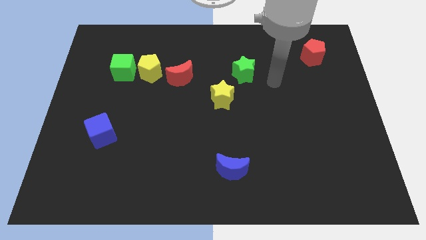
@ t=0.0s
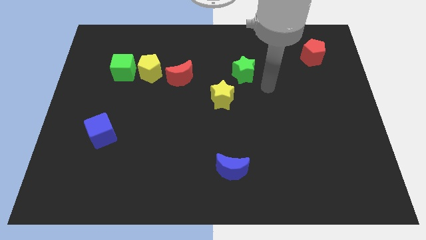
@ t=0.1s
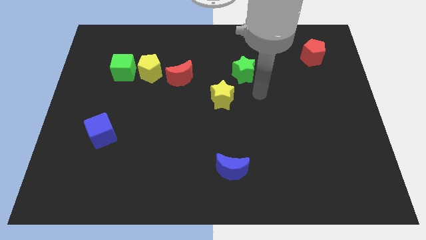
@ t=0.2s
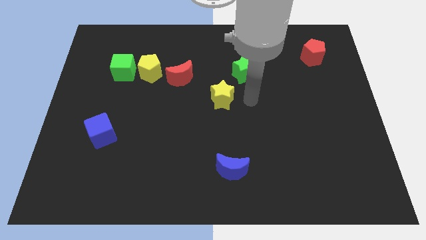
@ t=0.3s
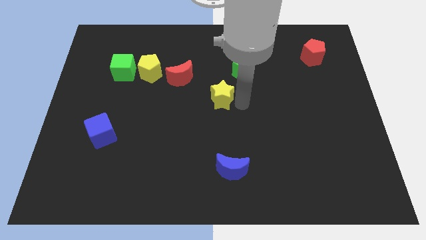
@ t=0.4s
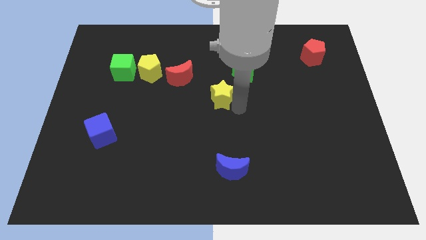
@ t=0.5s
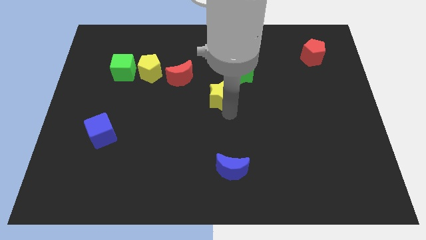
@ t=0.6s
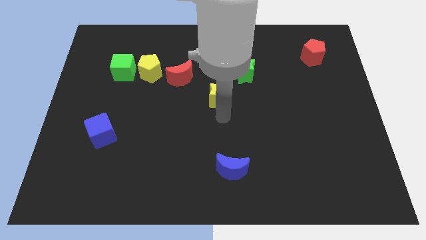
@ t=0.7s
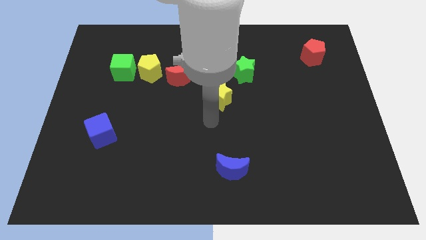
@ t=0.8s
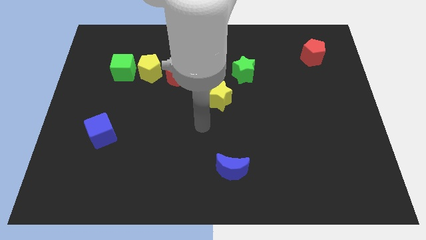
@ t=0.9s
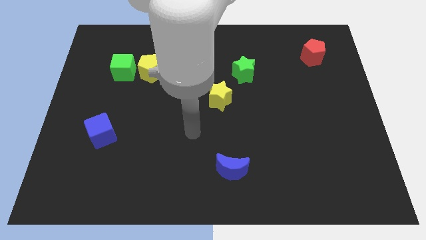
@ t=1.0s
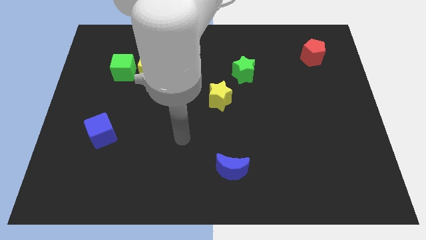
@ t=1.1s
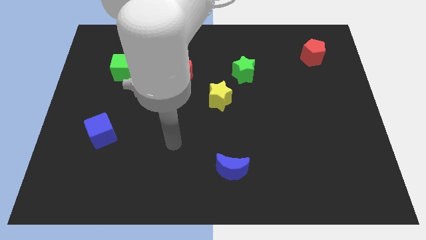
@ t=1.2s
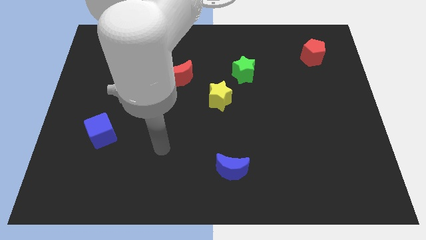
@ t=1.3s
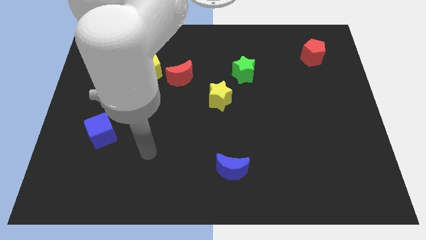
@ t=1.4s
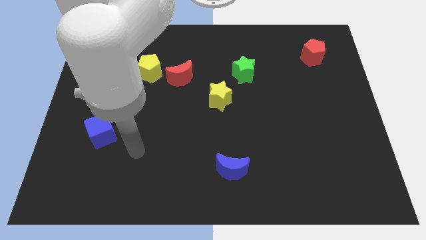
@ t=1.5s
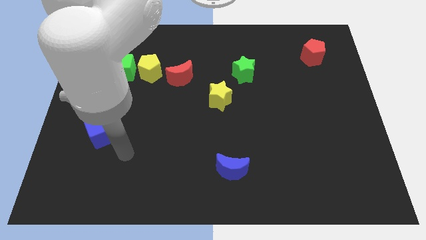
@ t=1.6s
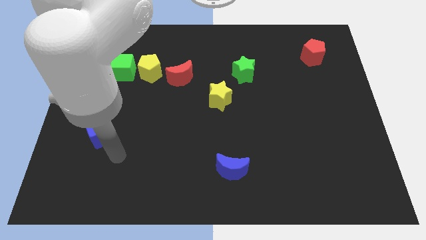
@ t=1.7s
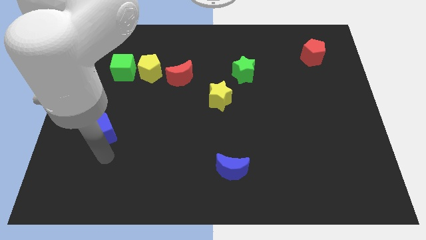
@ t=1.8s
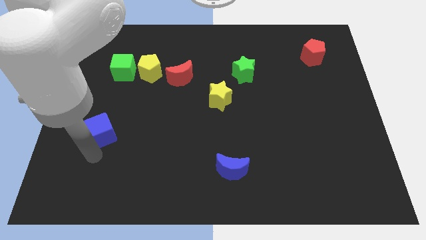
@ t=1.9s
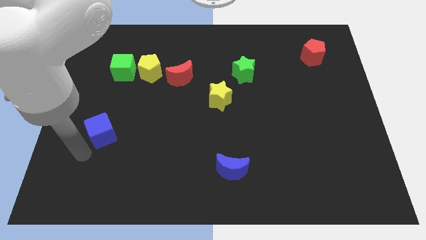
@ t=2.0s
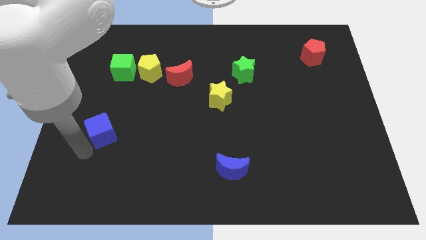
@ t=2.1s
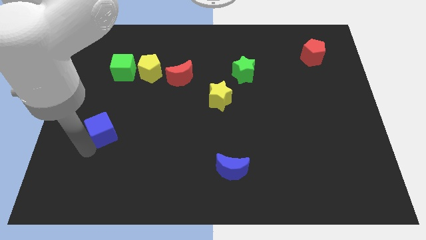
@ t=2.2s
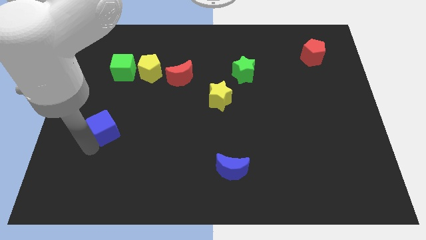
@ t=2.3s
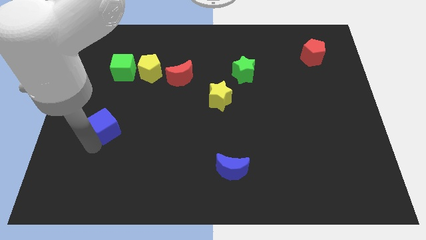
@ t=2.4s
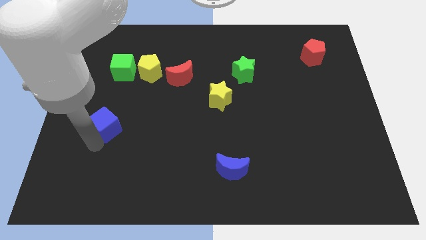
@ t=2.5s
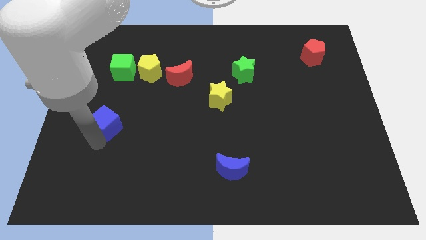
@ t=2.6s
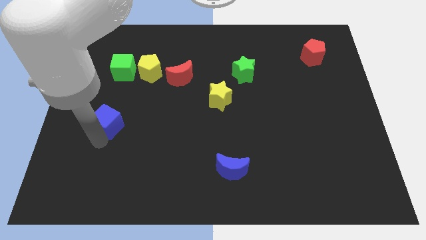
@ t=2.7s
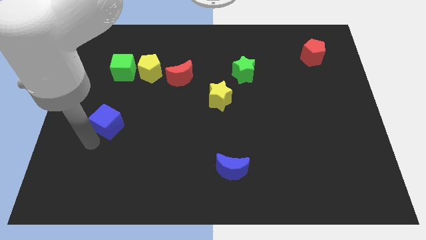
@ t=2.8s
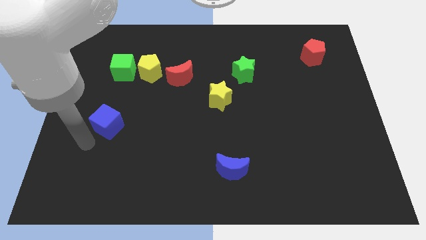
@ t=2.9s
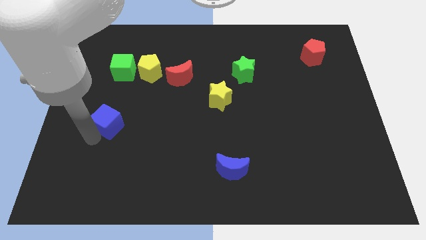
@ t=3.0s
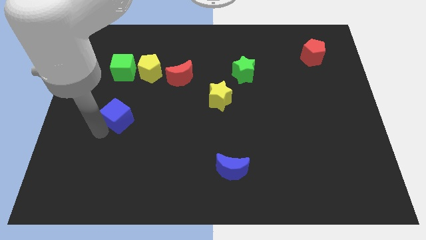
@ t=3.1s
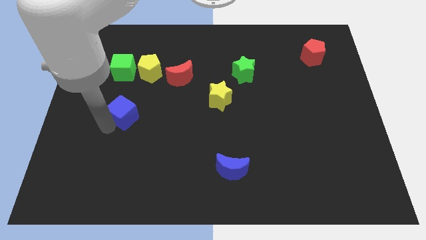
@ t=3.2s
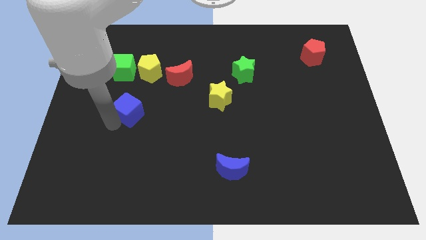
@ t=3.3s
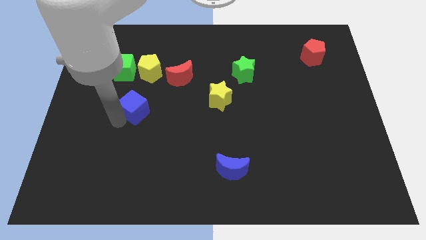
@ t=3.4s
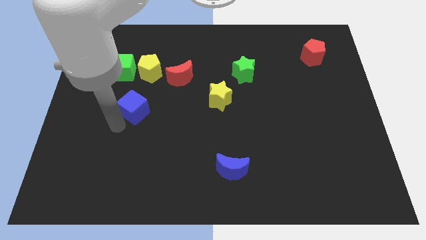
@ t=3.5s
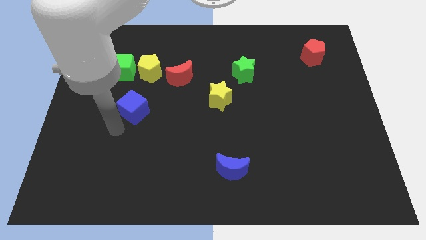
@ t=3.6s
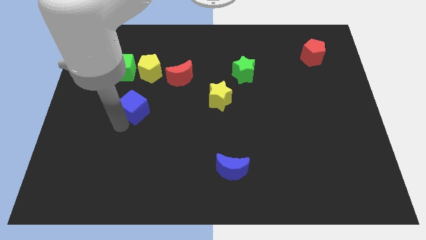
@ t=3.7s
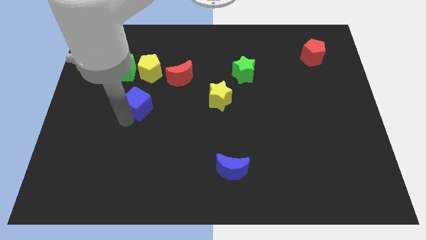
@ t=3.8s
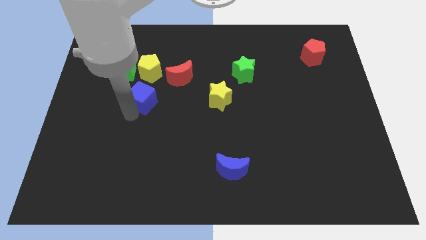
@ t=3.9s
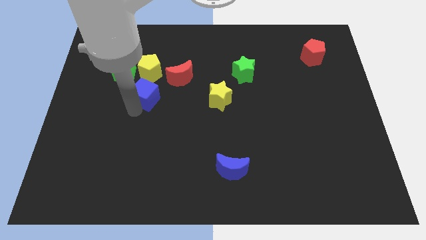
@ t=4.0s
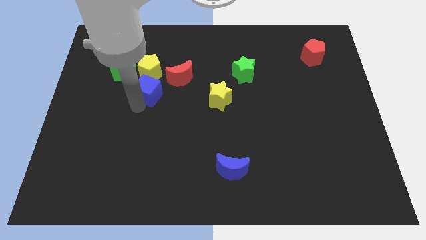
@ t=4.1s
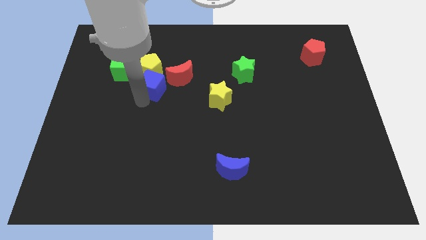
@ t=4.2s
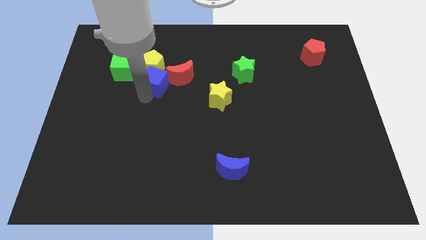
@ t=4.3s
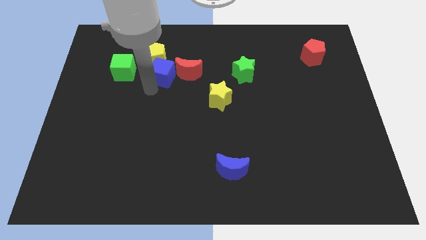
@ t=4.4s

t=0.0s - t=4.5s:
slide the blue cube diagonally up and to the right

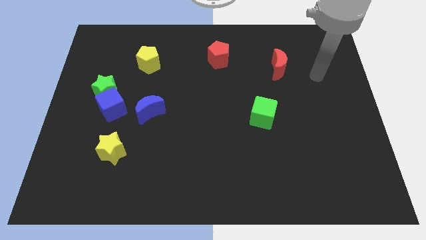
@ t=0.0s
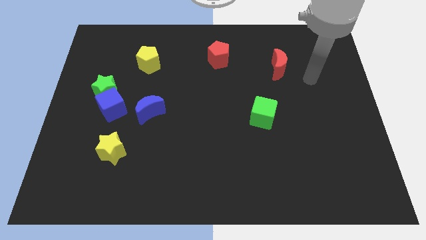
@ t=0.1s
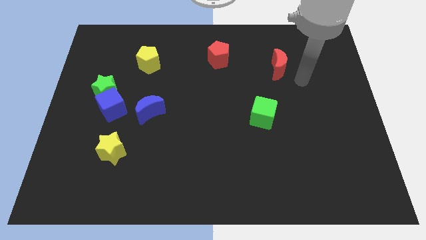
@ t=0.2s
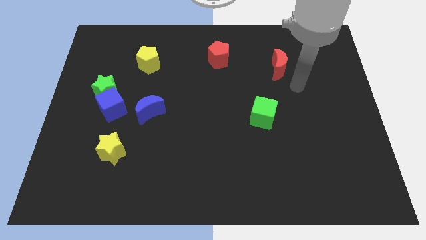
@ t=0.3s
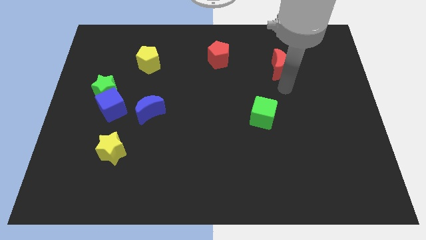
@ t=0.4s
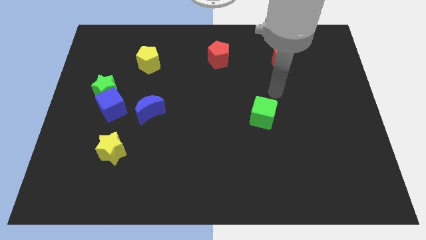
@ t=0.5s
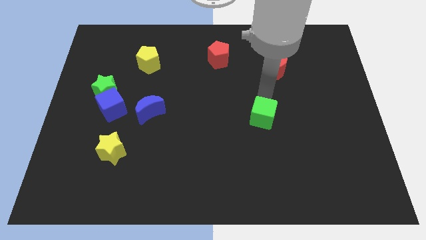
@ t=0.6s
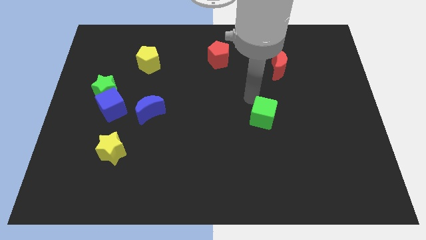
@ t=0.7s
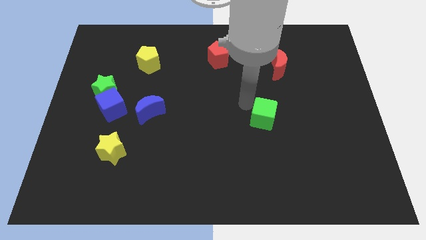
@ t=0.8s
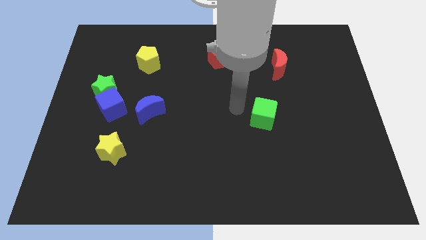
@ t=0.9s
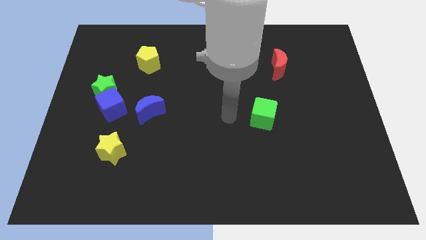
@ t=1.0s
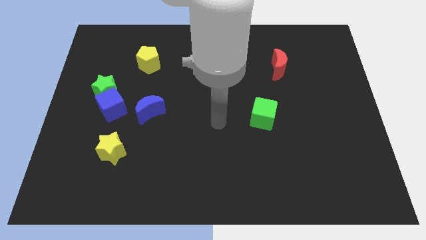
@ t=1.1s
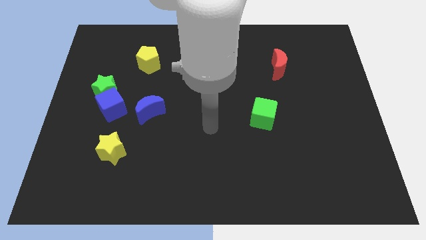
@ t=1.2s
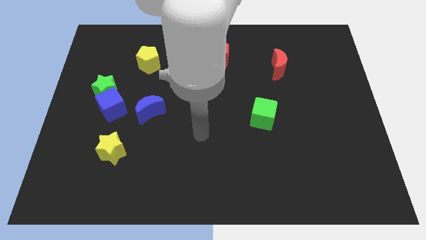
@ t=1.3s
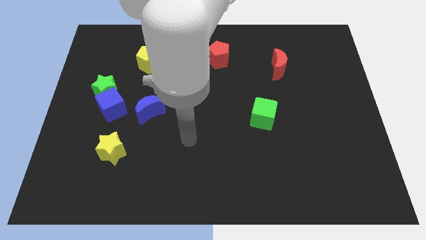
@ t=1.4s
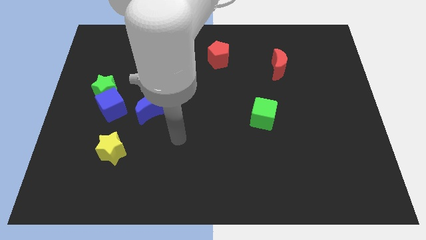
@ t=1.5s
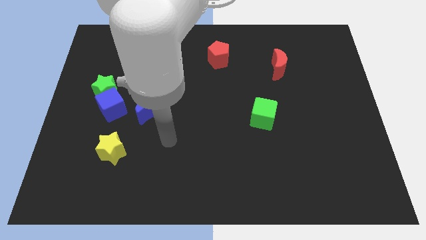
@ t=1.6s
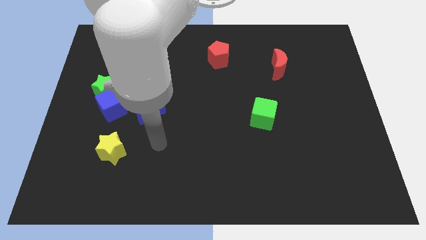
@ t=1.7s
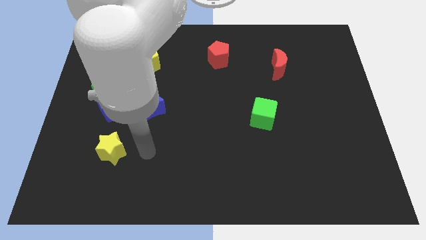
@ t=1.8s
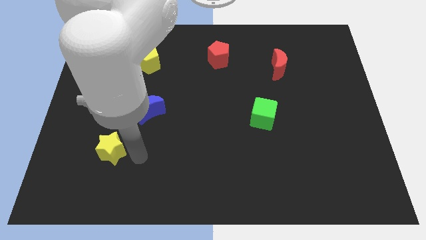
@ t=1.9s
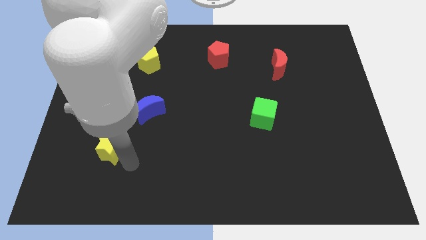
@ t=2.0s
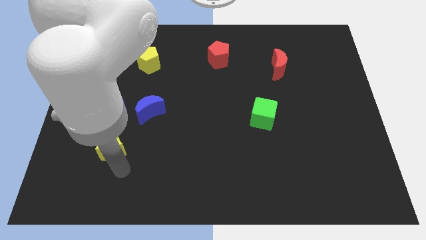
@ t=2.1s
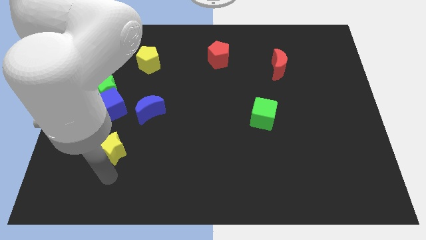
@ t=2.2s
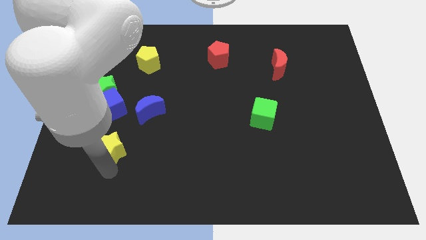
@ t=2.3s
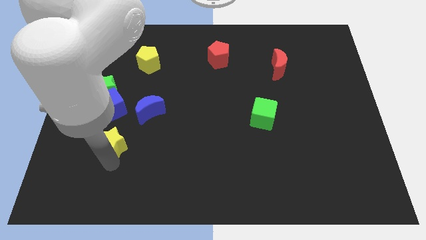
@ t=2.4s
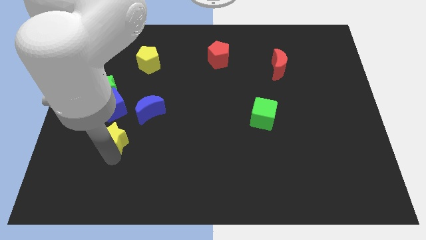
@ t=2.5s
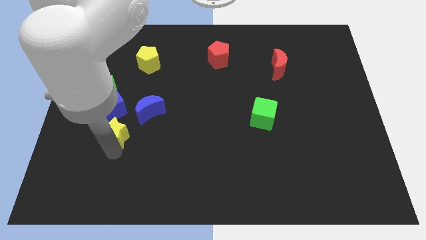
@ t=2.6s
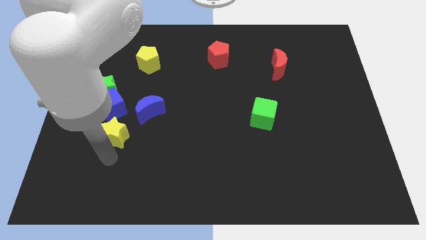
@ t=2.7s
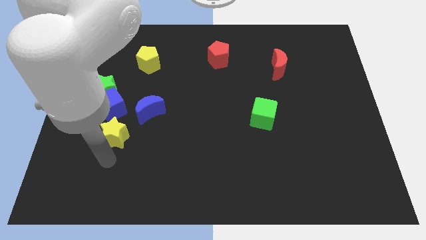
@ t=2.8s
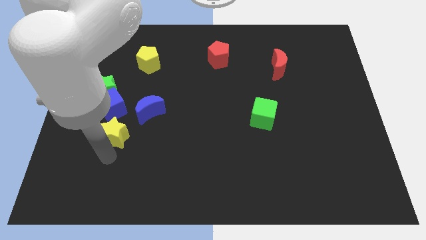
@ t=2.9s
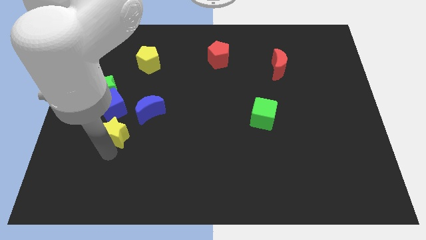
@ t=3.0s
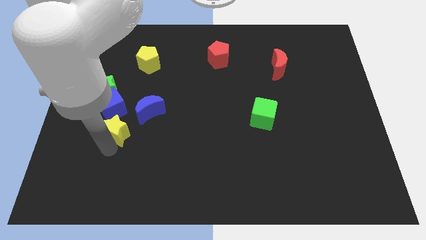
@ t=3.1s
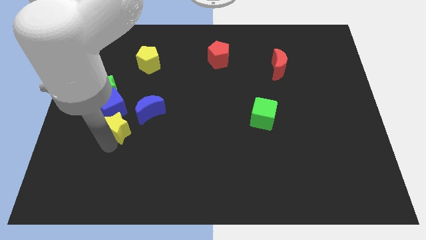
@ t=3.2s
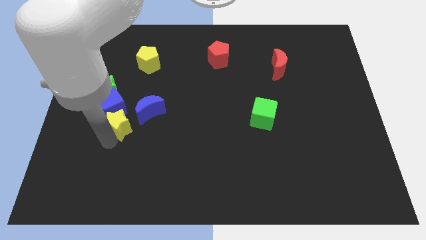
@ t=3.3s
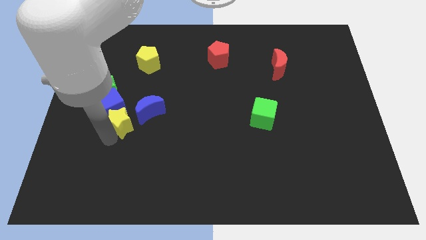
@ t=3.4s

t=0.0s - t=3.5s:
slightly move the yellow star up
